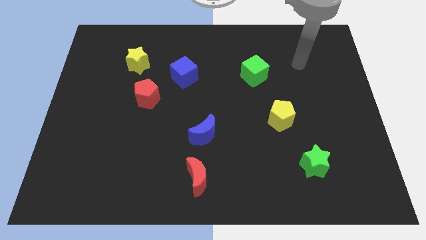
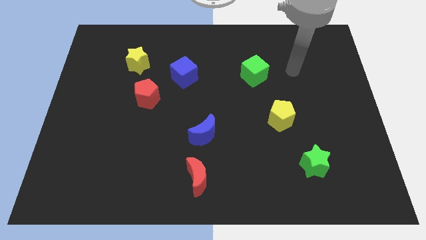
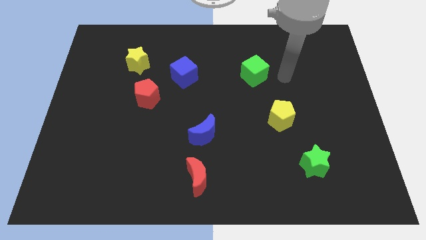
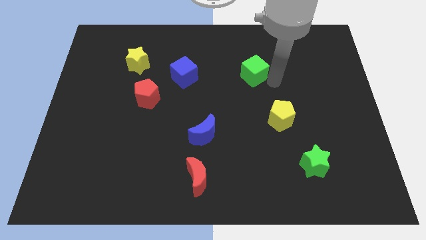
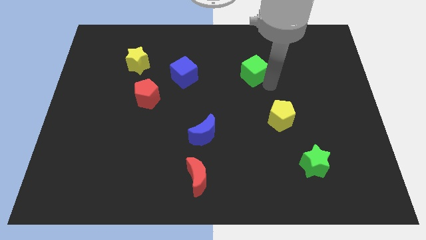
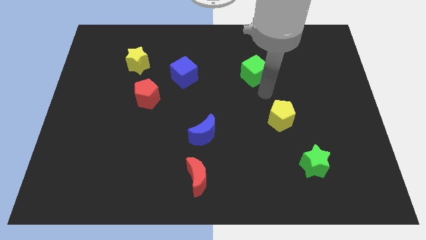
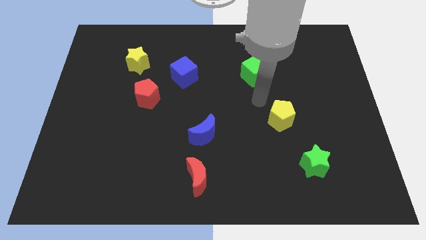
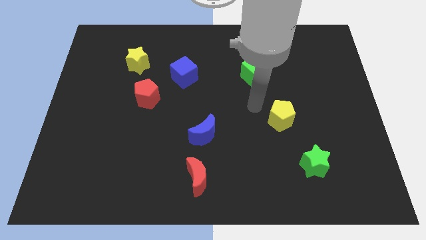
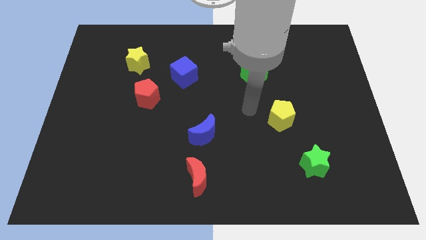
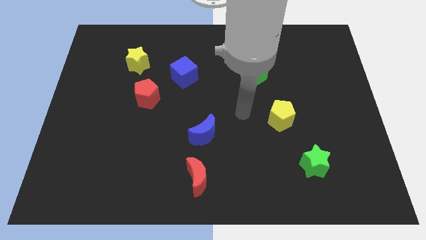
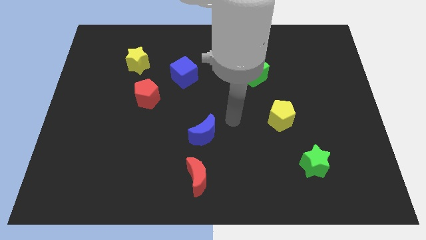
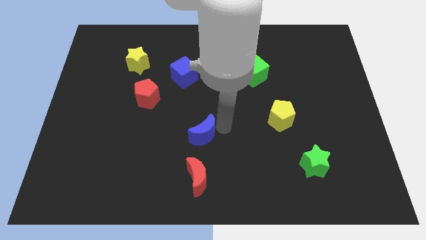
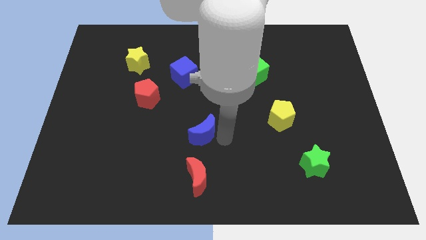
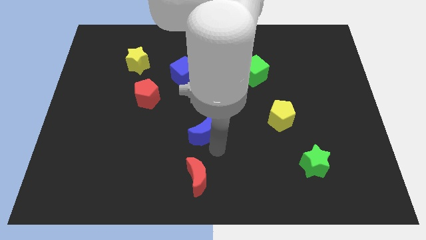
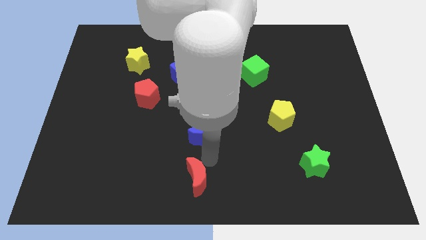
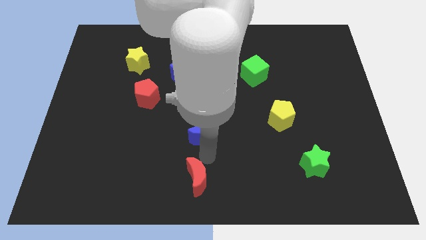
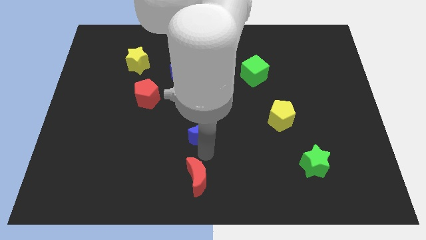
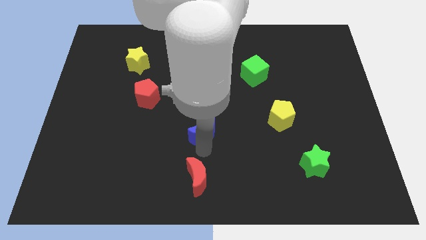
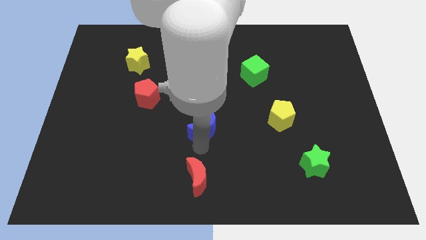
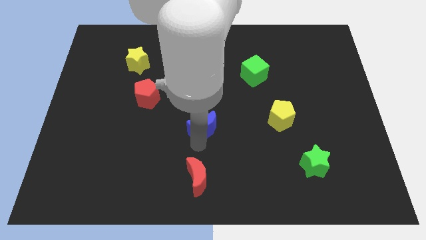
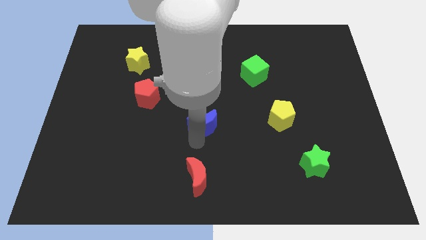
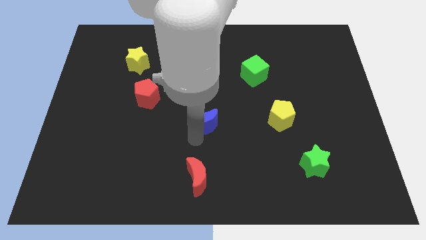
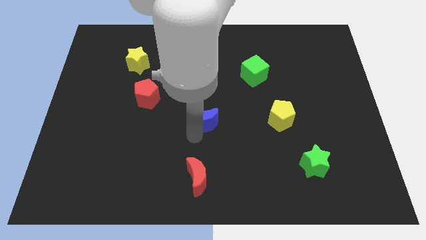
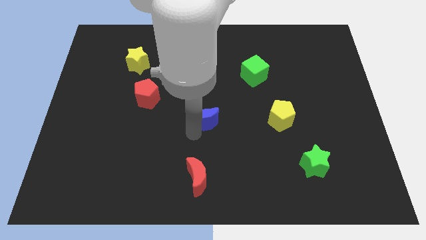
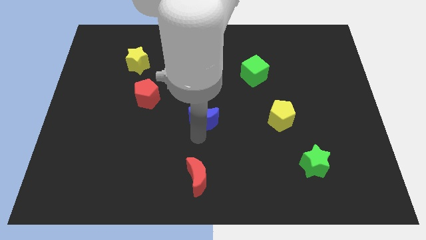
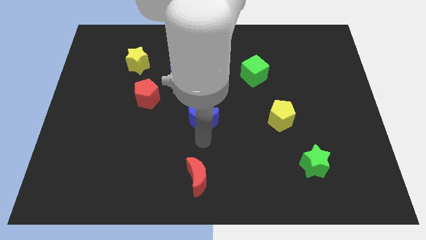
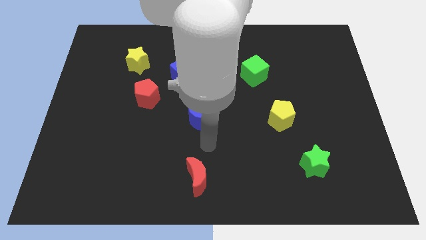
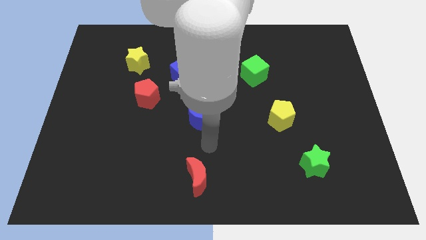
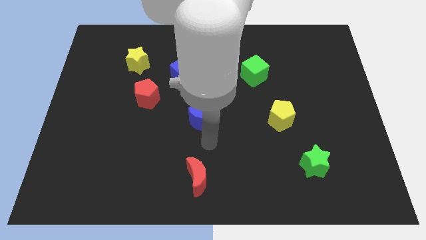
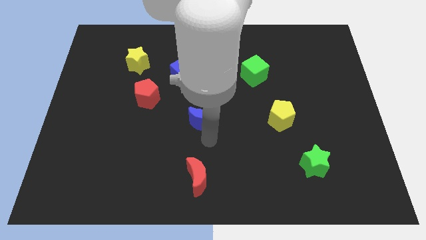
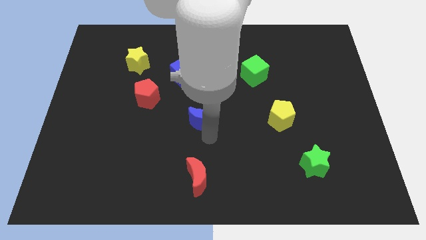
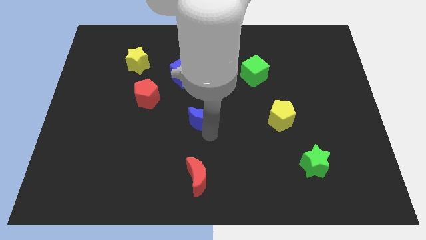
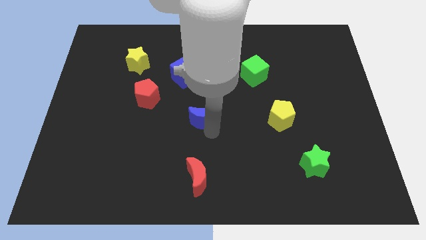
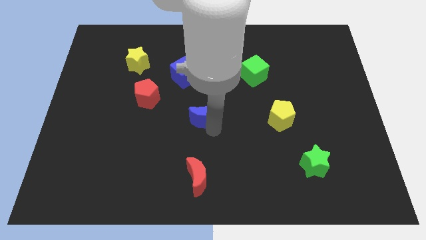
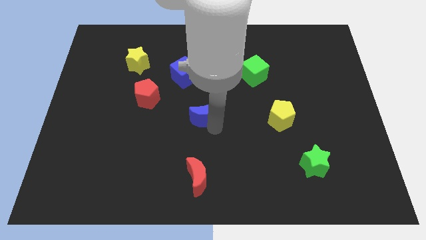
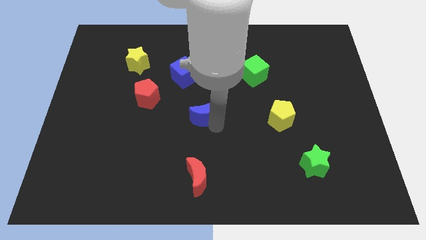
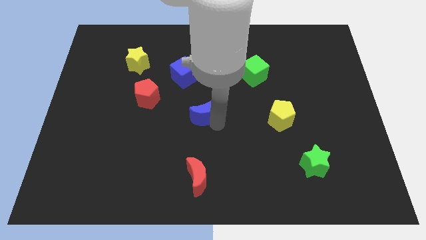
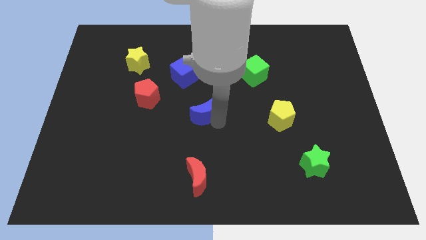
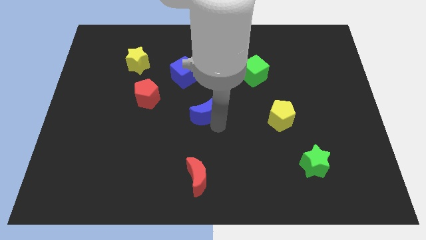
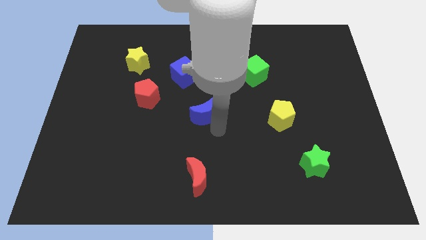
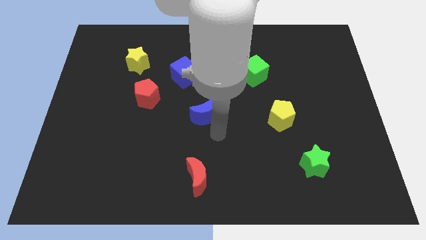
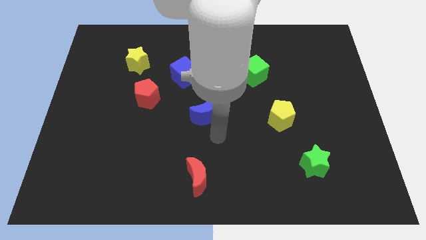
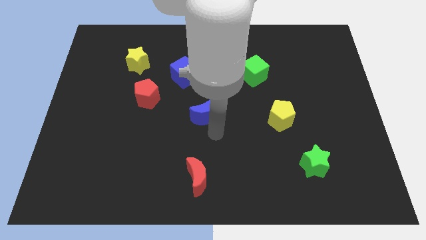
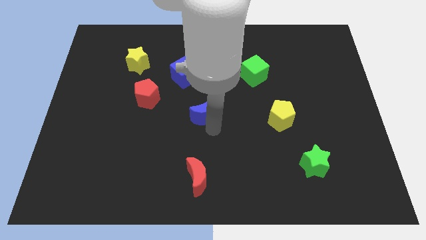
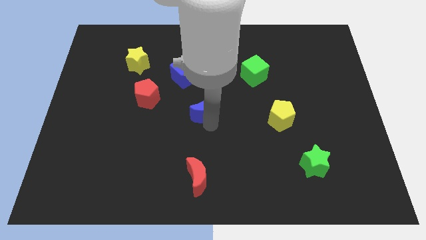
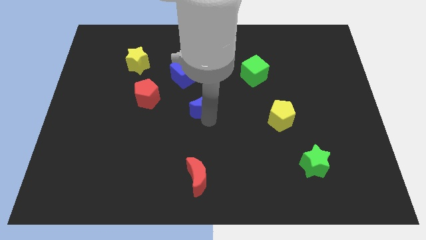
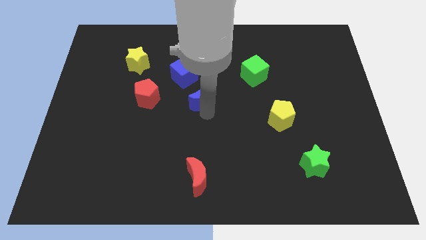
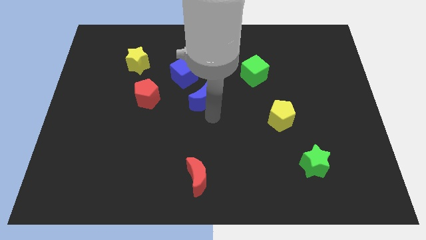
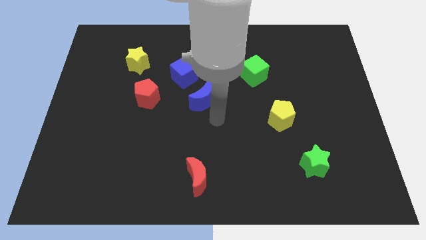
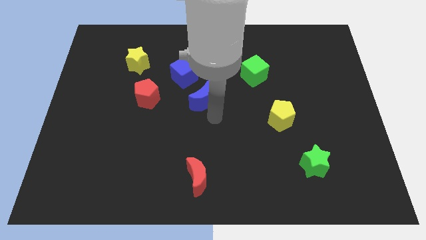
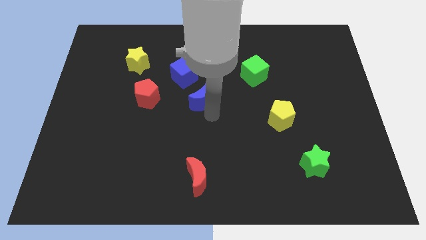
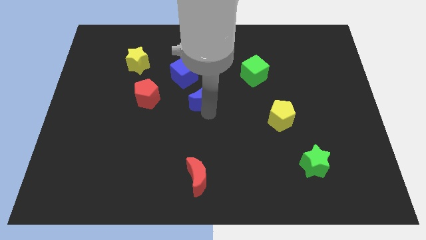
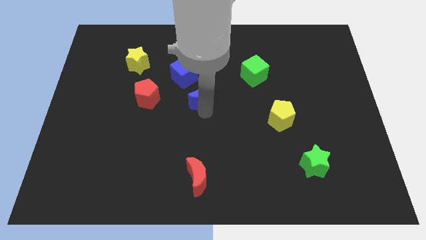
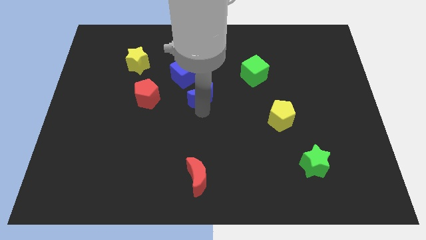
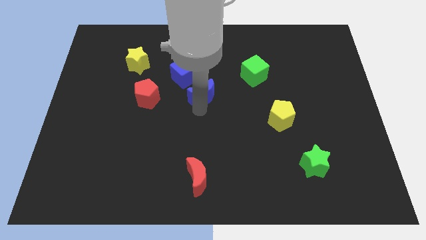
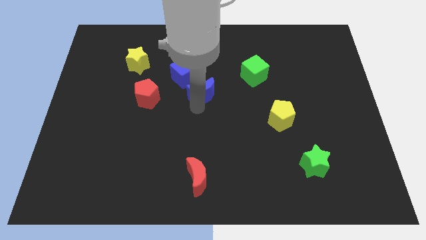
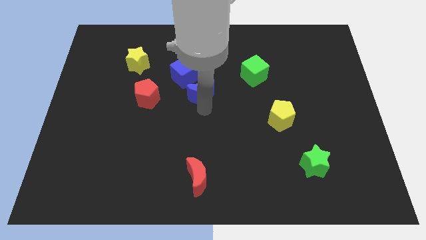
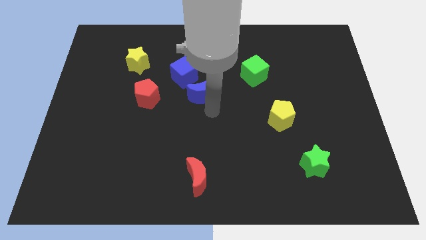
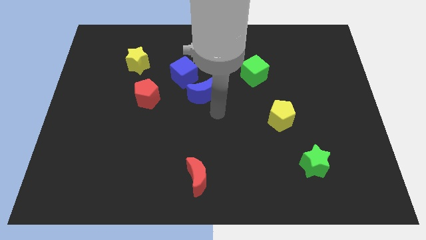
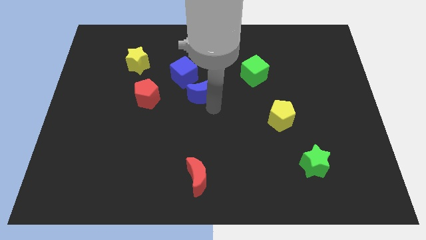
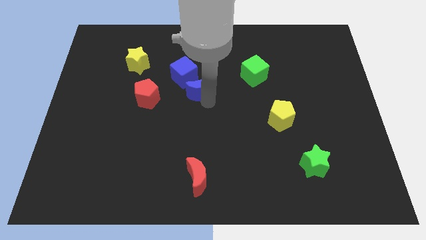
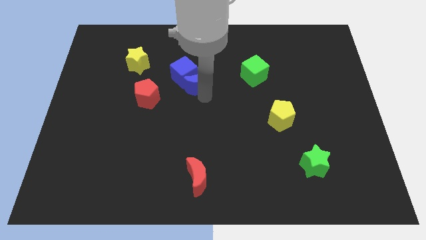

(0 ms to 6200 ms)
put the blue moon close to the blue cube

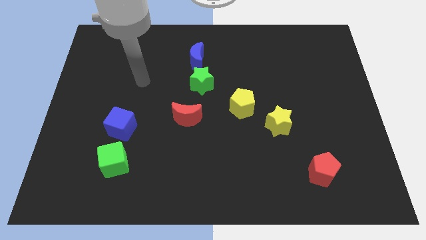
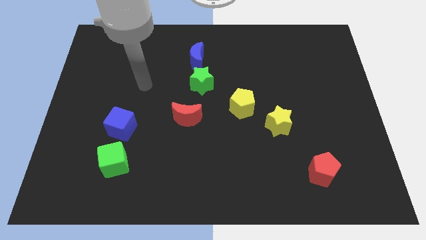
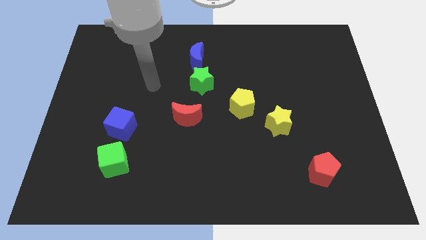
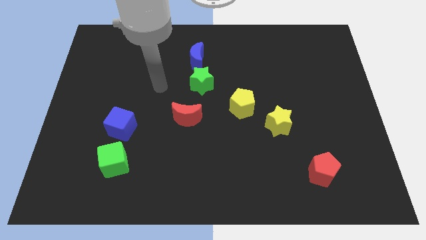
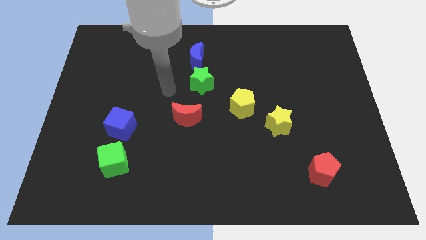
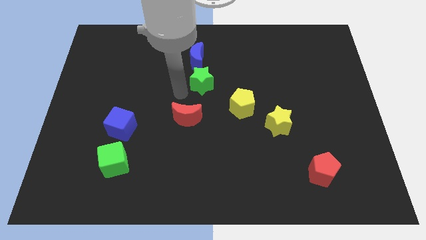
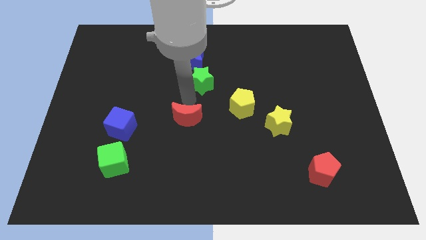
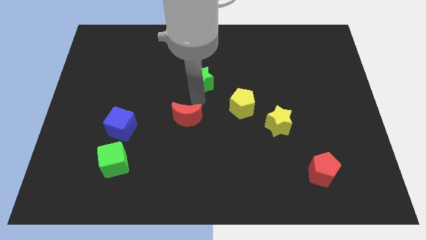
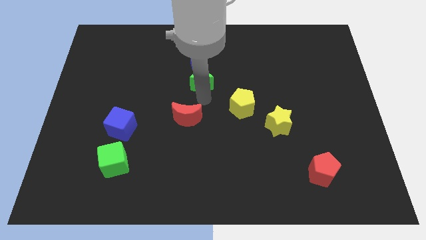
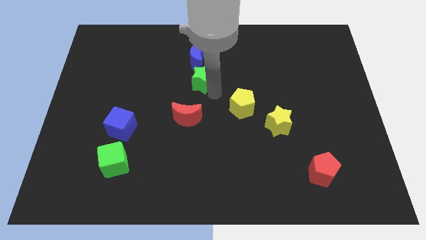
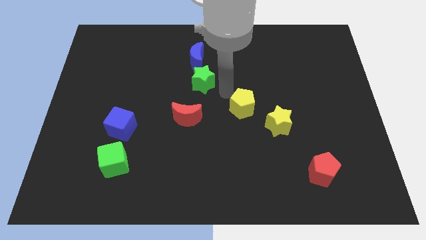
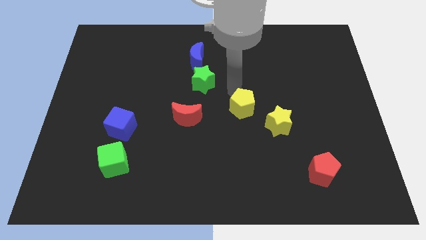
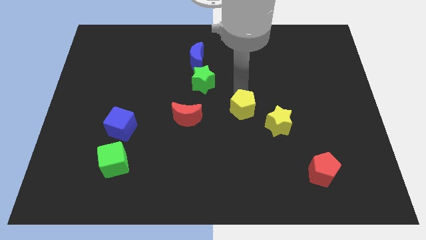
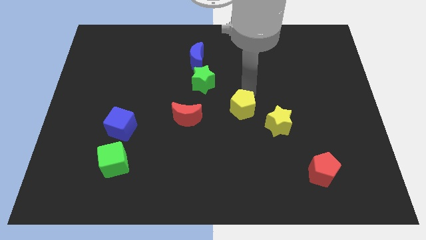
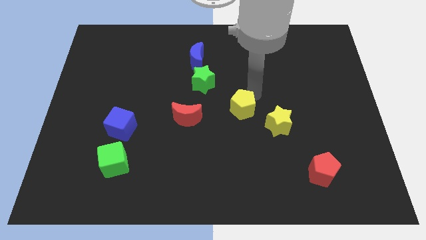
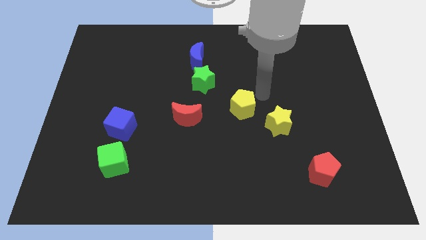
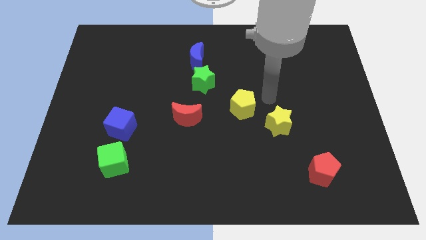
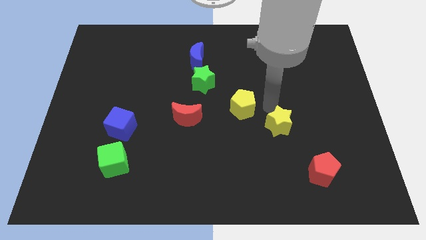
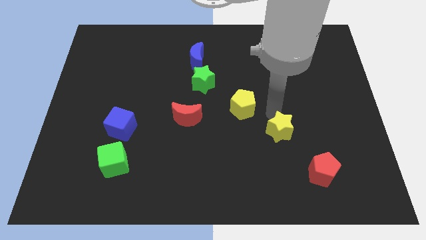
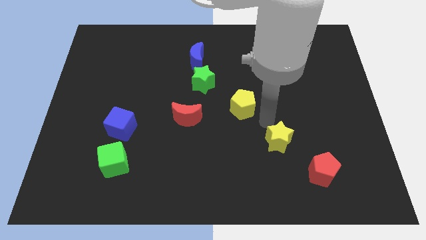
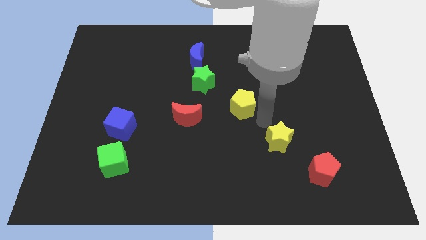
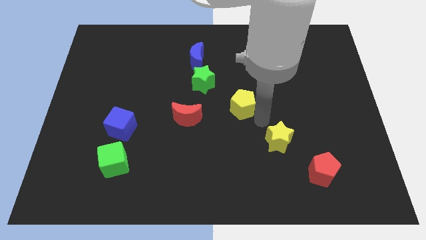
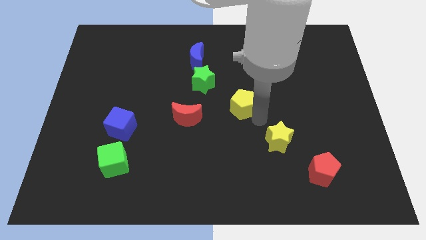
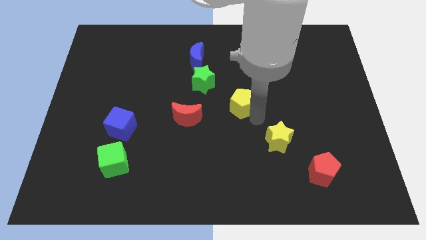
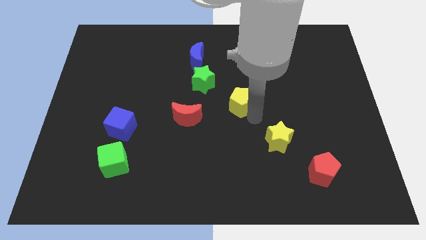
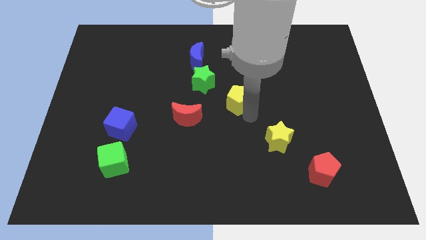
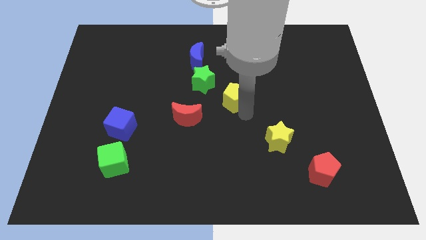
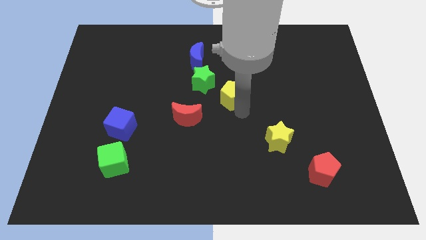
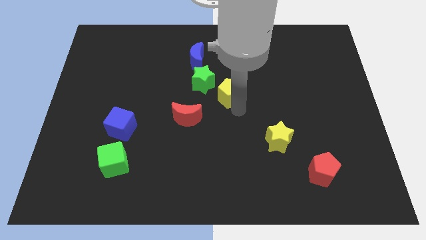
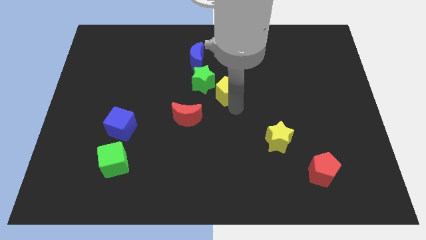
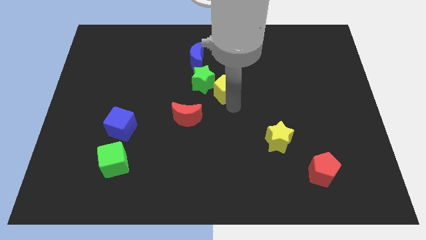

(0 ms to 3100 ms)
push the yellow pentagon towards the green star
